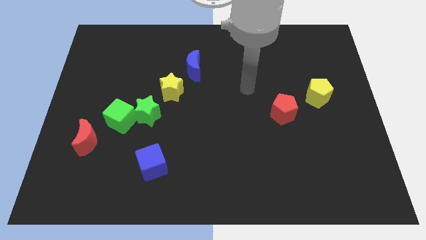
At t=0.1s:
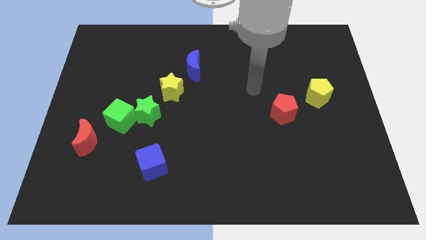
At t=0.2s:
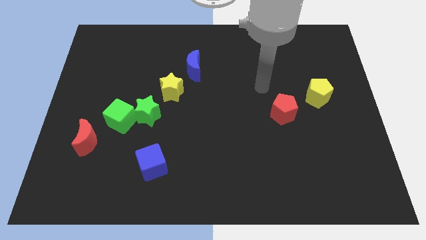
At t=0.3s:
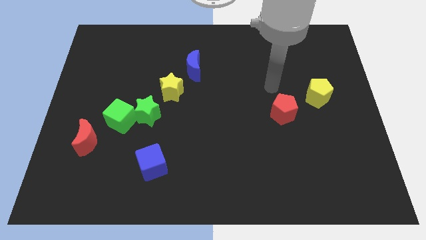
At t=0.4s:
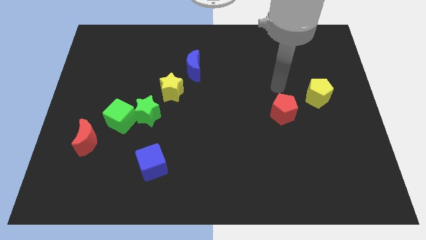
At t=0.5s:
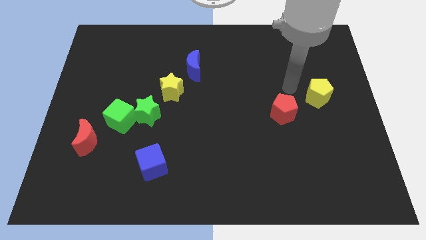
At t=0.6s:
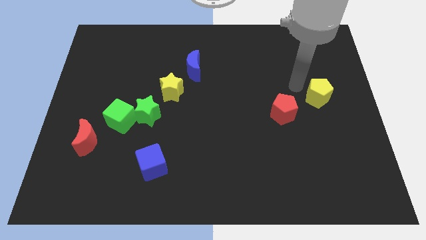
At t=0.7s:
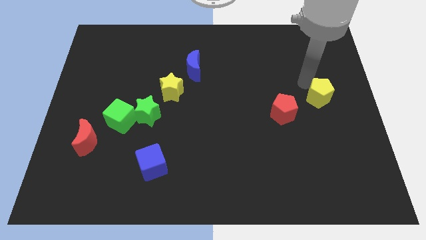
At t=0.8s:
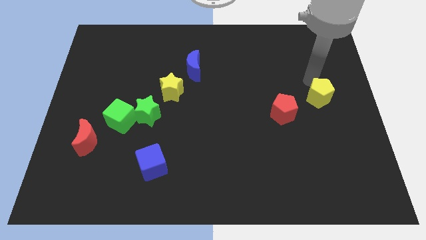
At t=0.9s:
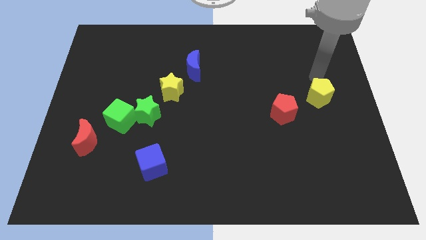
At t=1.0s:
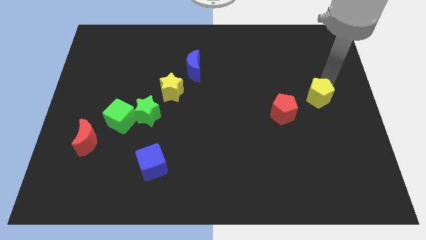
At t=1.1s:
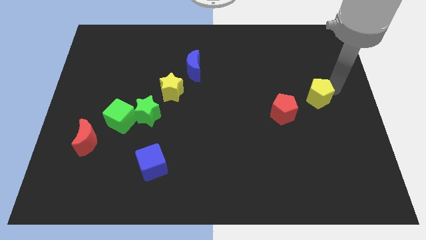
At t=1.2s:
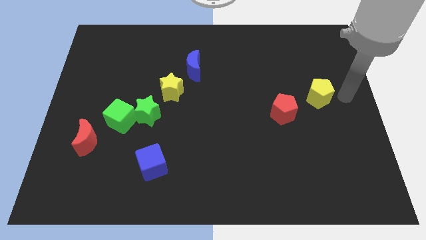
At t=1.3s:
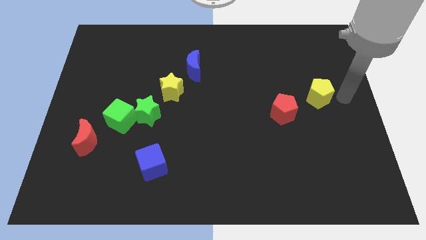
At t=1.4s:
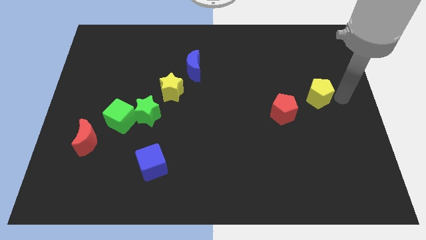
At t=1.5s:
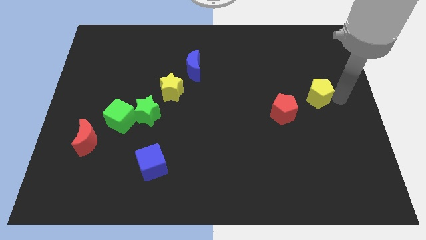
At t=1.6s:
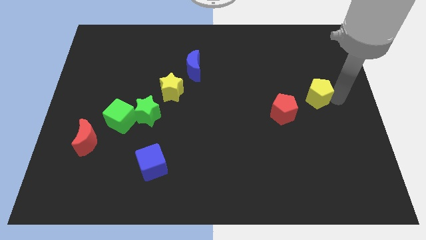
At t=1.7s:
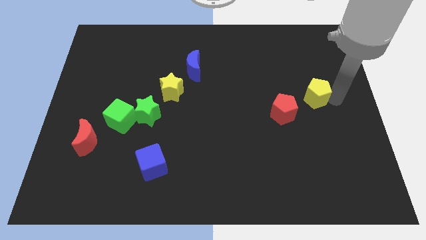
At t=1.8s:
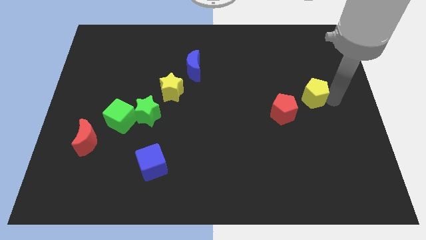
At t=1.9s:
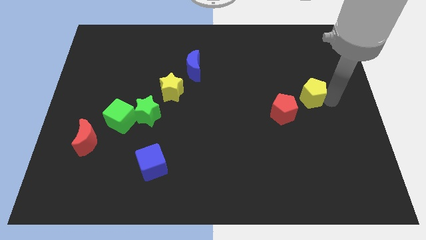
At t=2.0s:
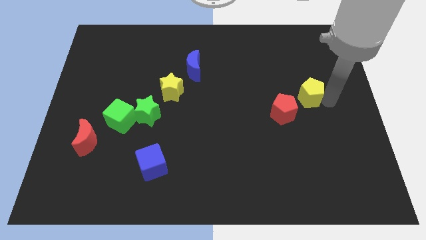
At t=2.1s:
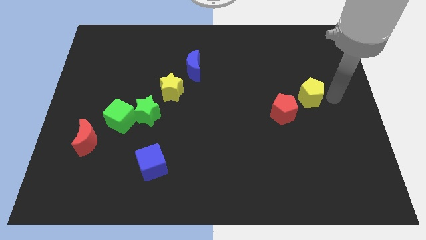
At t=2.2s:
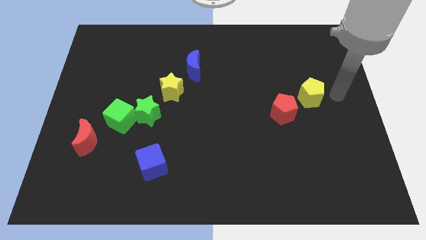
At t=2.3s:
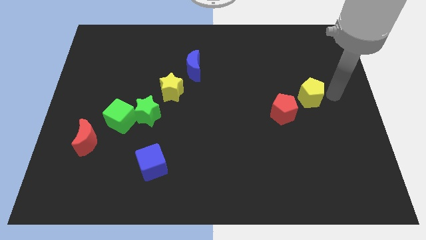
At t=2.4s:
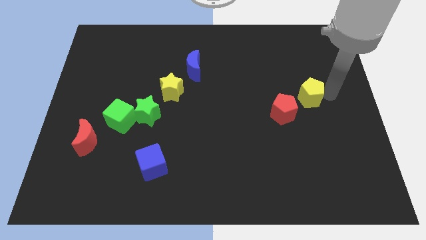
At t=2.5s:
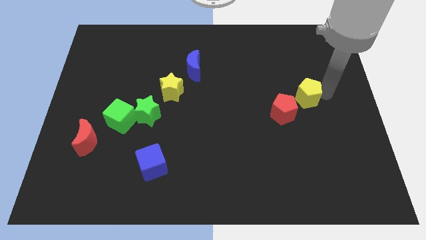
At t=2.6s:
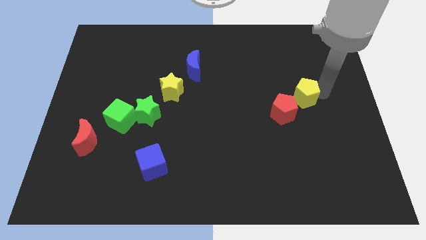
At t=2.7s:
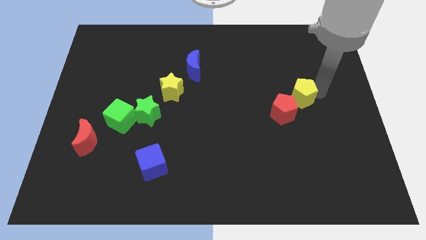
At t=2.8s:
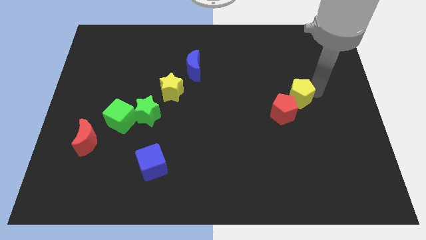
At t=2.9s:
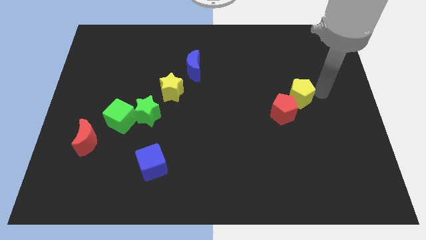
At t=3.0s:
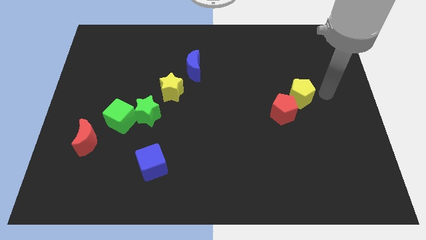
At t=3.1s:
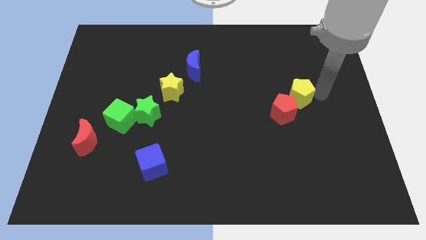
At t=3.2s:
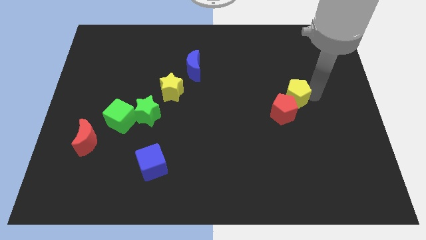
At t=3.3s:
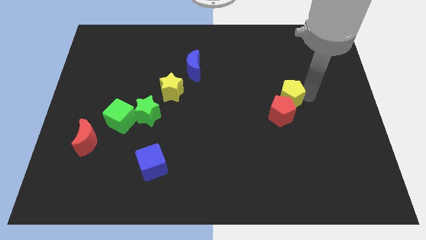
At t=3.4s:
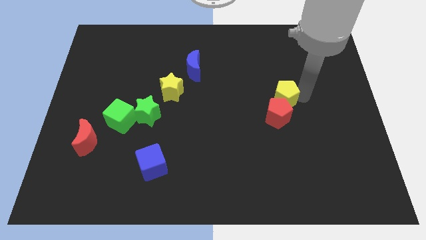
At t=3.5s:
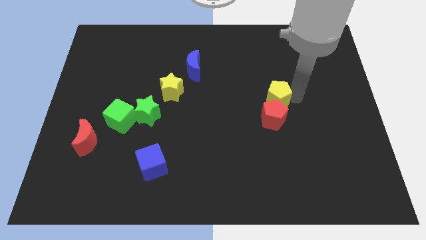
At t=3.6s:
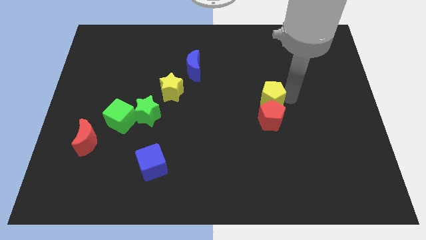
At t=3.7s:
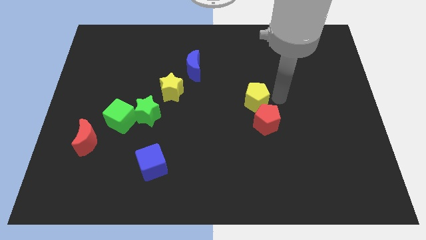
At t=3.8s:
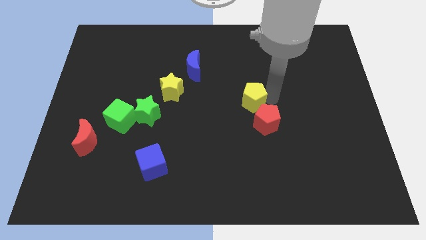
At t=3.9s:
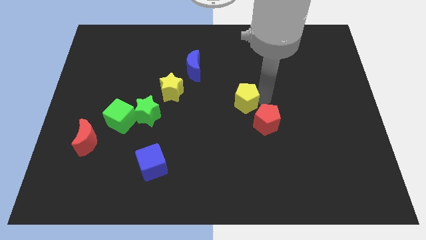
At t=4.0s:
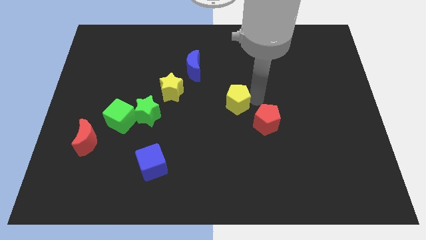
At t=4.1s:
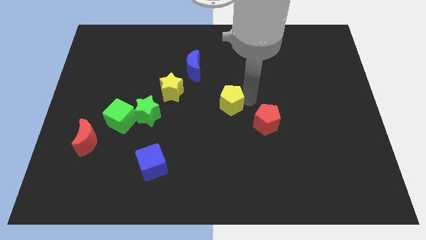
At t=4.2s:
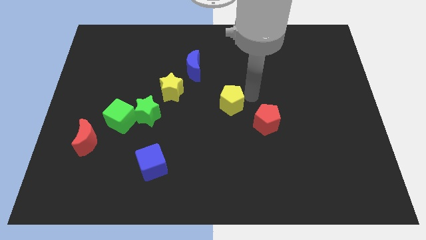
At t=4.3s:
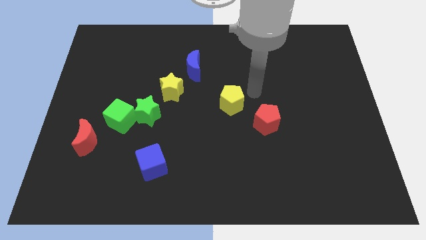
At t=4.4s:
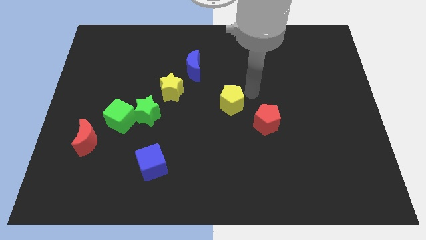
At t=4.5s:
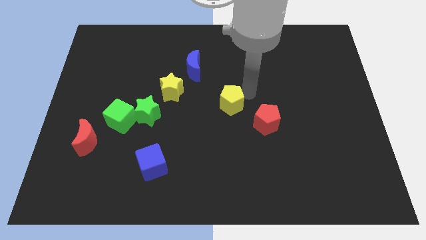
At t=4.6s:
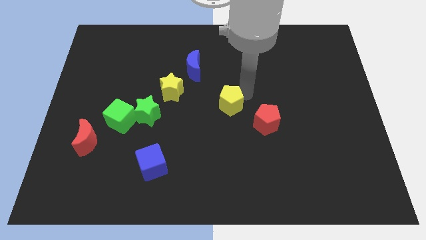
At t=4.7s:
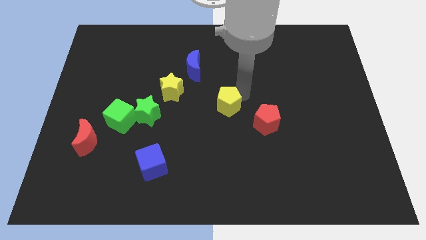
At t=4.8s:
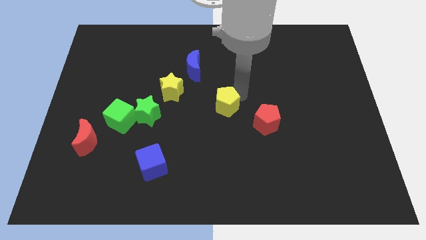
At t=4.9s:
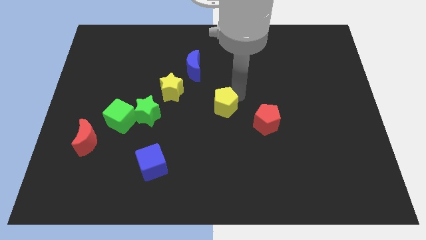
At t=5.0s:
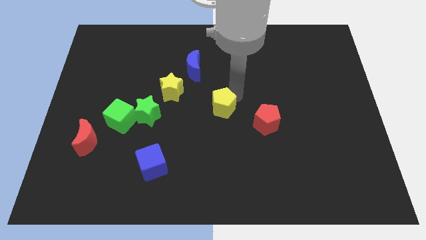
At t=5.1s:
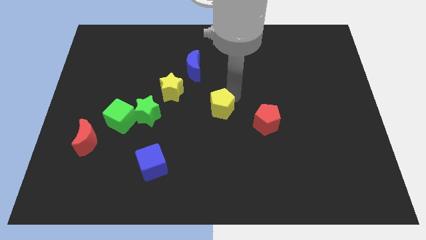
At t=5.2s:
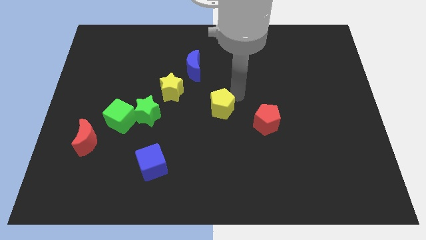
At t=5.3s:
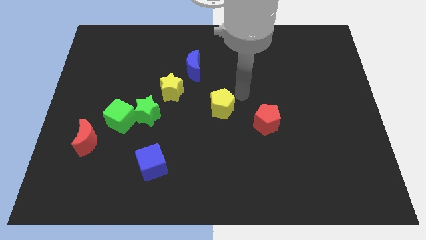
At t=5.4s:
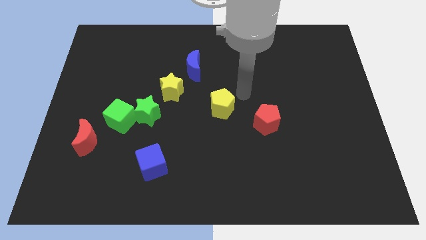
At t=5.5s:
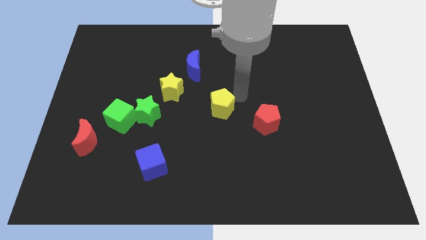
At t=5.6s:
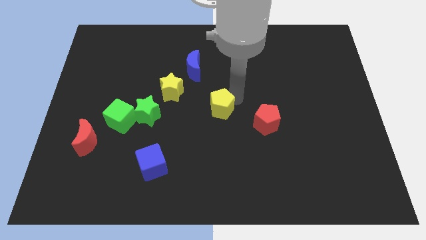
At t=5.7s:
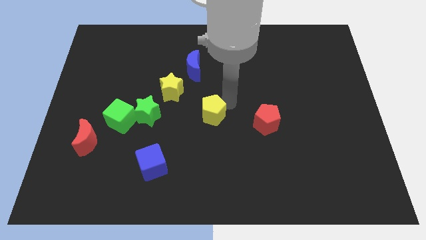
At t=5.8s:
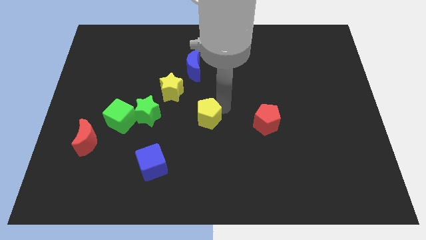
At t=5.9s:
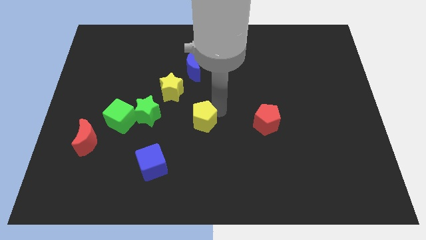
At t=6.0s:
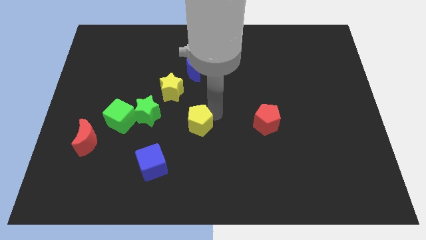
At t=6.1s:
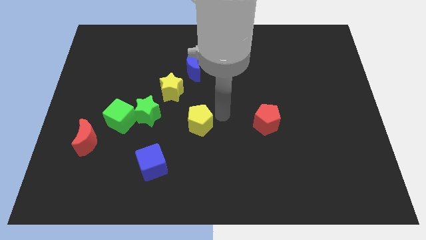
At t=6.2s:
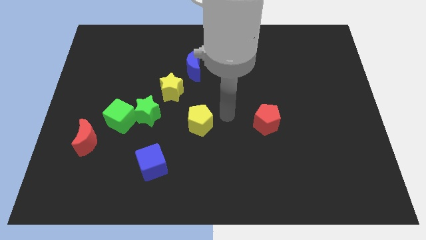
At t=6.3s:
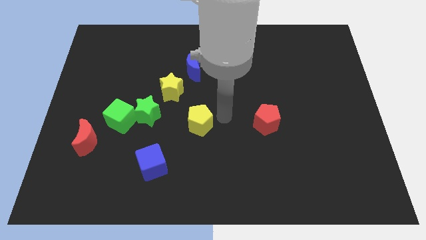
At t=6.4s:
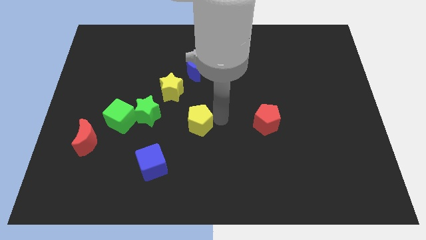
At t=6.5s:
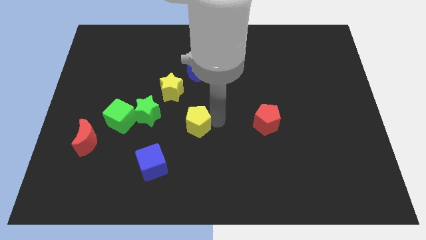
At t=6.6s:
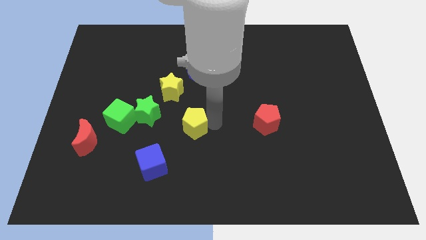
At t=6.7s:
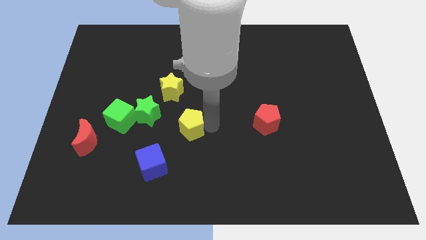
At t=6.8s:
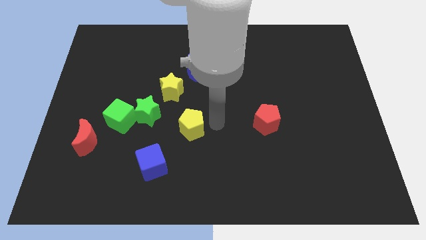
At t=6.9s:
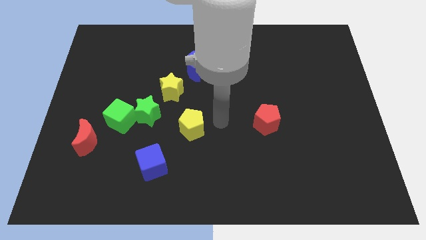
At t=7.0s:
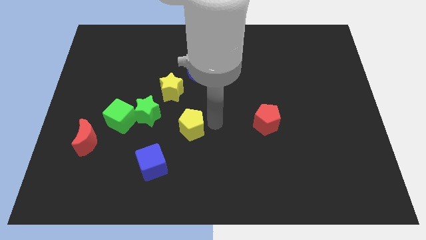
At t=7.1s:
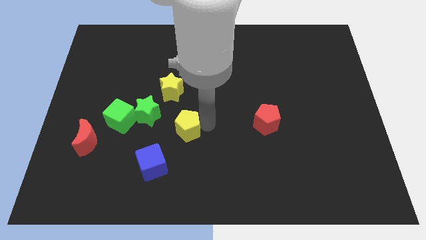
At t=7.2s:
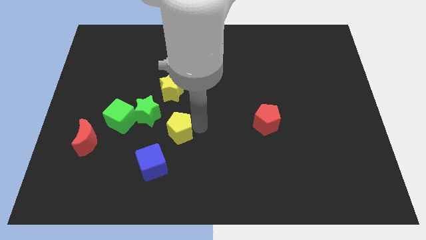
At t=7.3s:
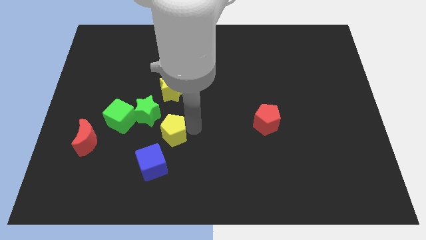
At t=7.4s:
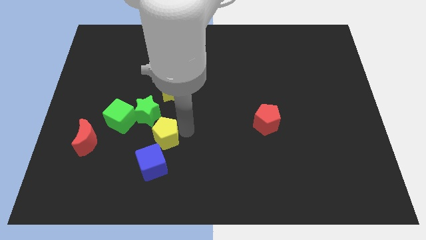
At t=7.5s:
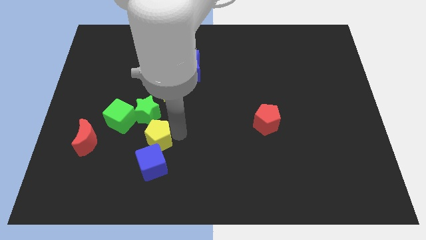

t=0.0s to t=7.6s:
put the yellow pentagon to the bottom right of the green cube

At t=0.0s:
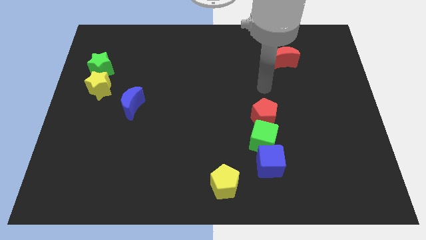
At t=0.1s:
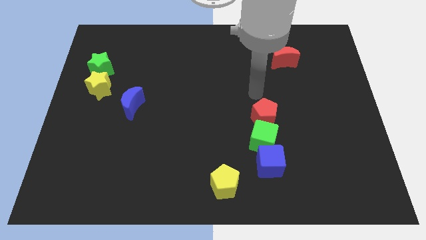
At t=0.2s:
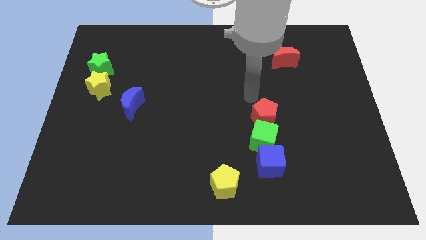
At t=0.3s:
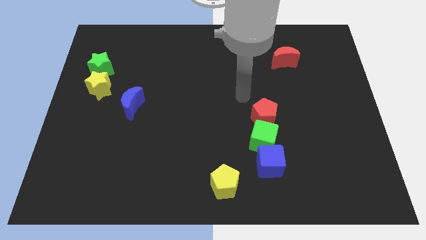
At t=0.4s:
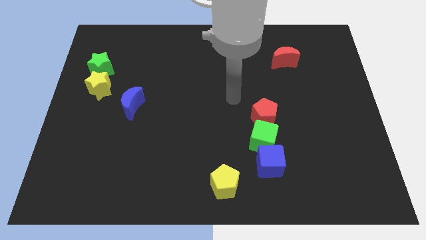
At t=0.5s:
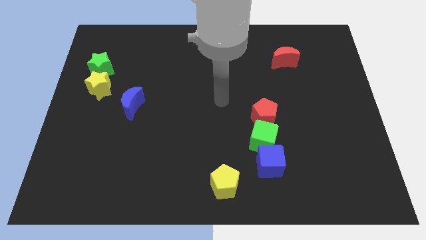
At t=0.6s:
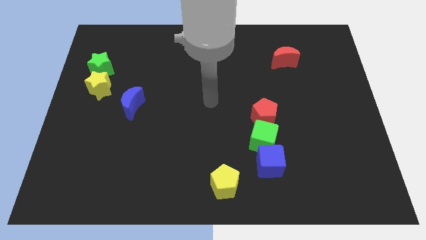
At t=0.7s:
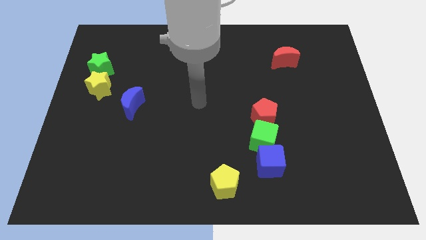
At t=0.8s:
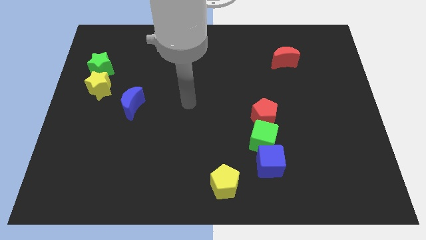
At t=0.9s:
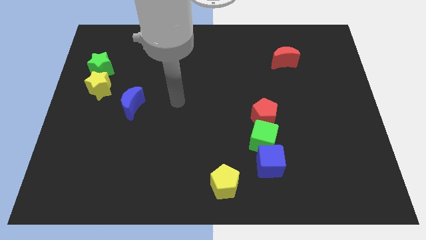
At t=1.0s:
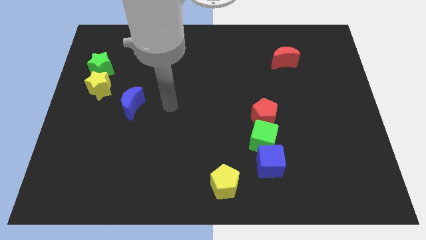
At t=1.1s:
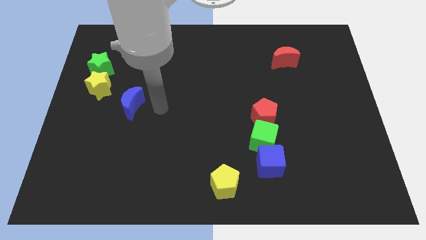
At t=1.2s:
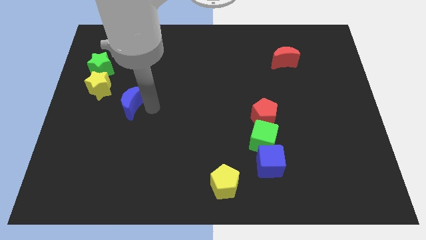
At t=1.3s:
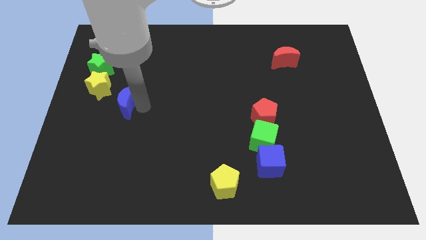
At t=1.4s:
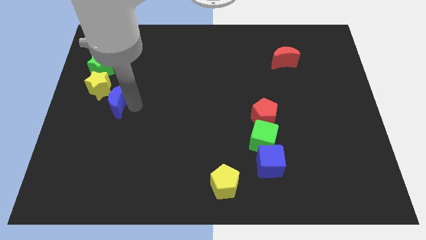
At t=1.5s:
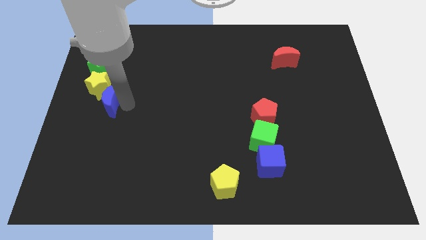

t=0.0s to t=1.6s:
move the blue moon to the bottom of the green star
